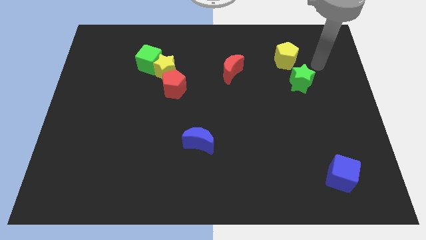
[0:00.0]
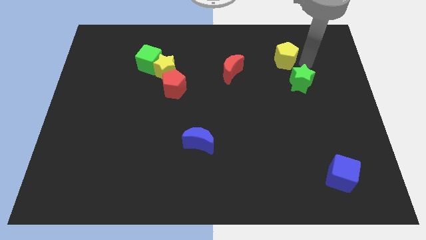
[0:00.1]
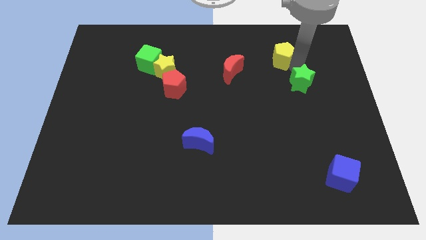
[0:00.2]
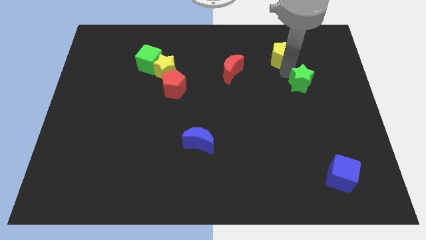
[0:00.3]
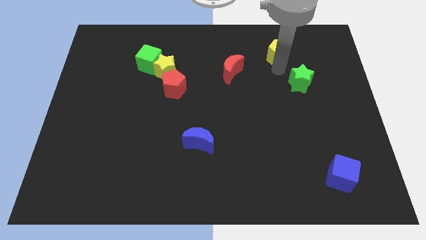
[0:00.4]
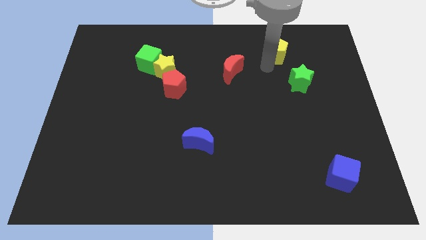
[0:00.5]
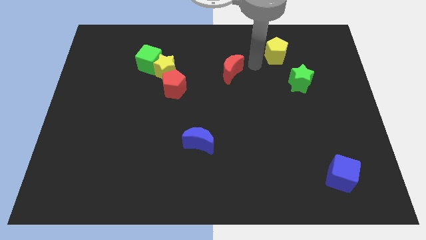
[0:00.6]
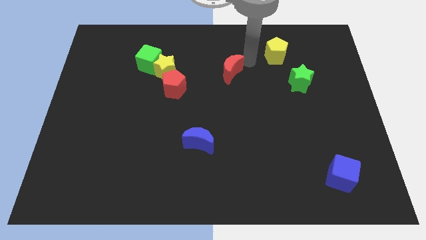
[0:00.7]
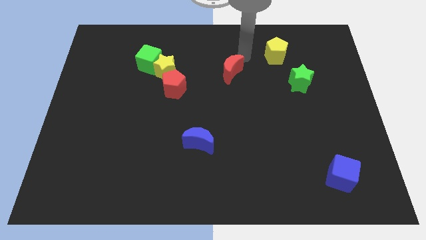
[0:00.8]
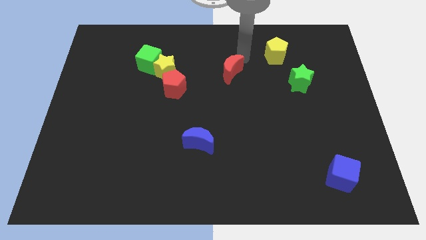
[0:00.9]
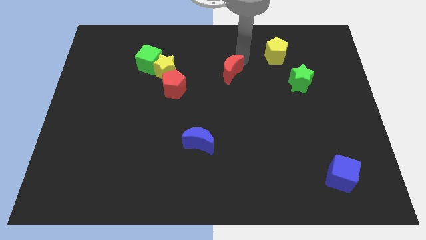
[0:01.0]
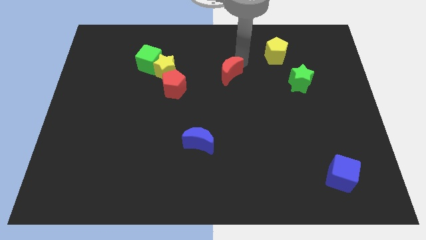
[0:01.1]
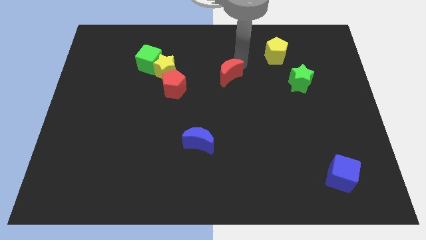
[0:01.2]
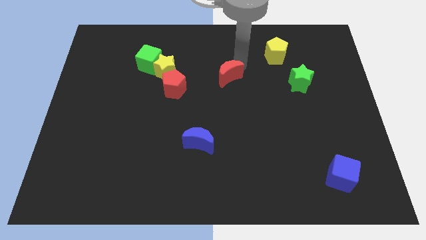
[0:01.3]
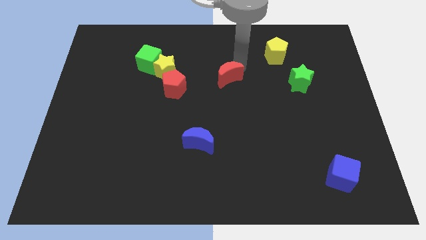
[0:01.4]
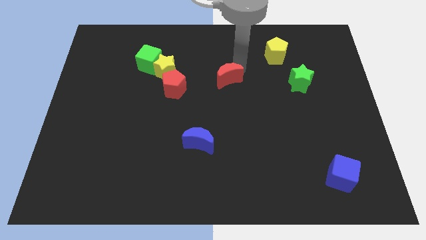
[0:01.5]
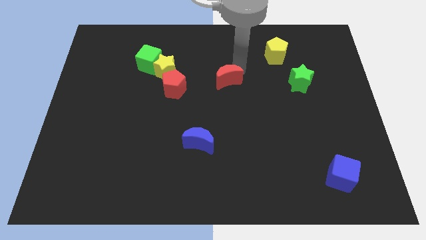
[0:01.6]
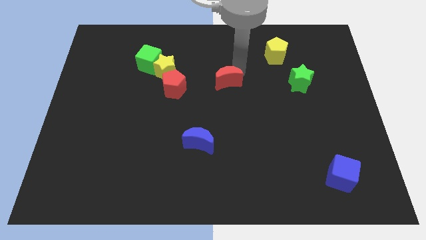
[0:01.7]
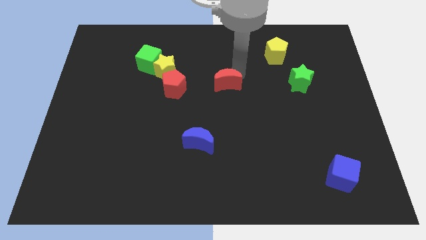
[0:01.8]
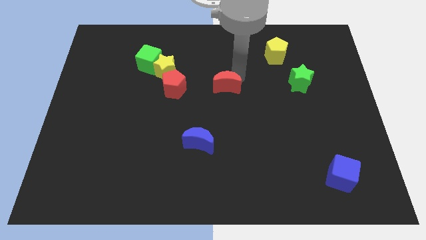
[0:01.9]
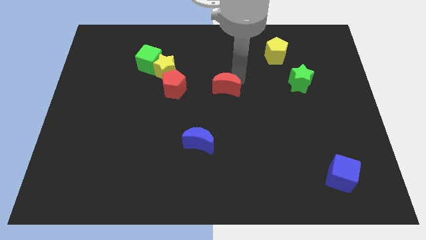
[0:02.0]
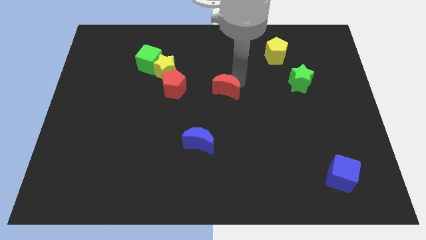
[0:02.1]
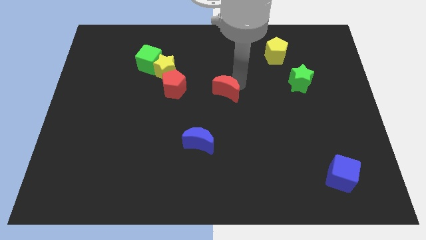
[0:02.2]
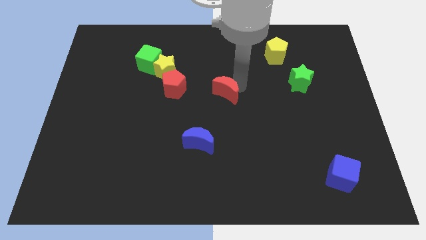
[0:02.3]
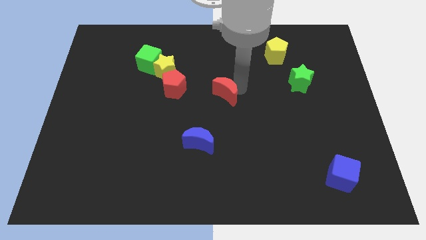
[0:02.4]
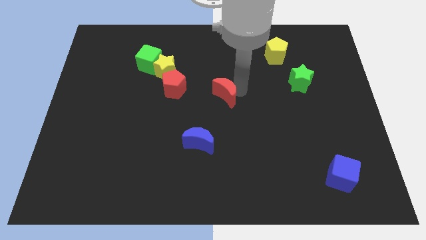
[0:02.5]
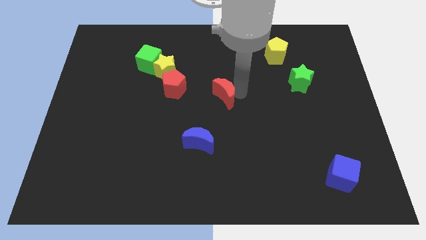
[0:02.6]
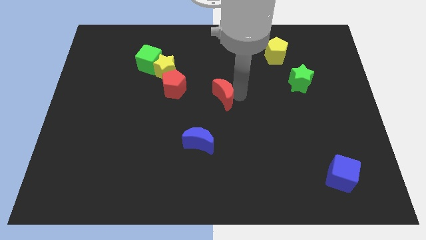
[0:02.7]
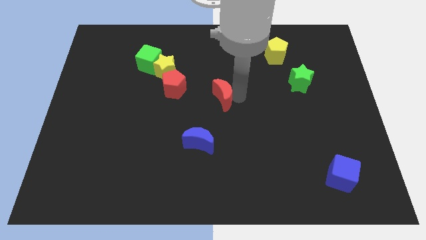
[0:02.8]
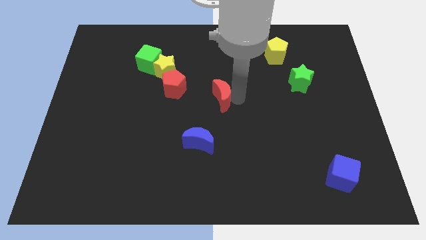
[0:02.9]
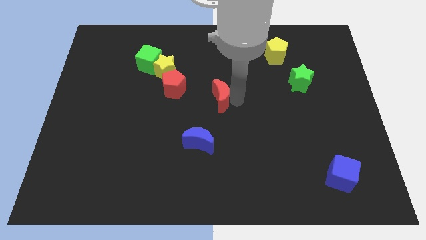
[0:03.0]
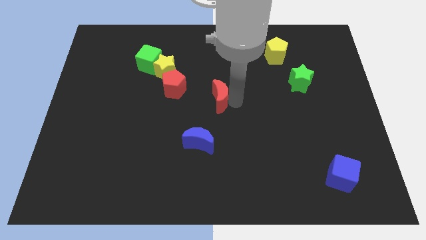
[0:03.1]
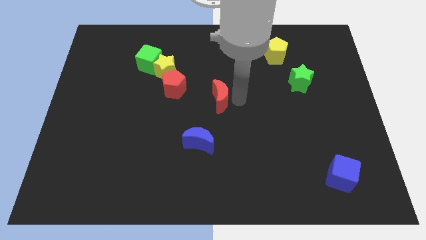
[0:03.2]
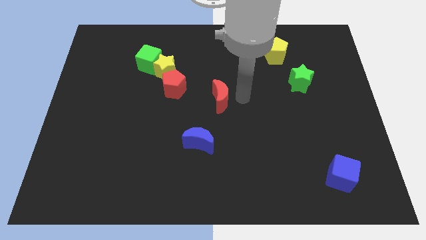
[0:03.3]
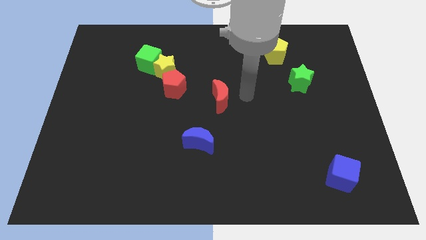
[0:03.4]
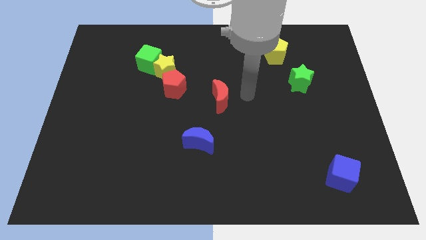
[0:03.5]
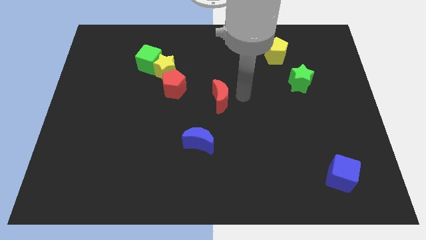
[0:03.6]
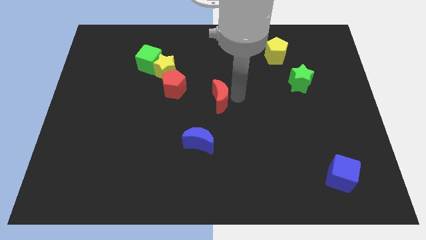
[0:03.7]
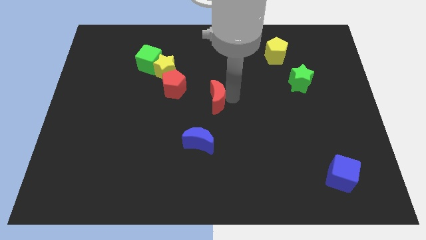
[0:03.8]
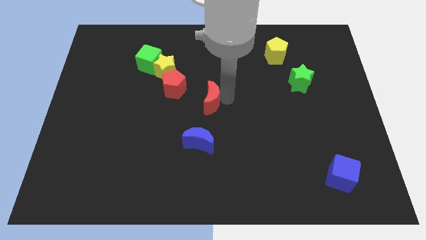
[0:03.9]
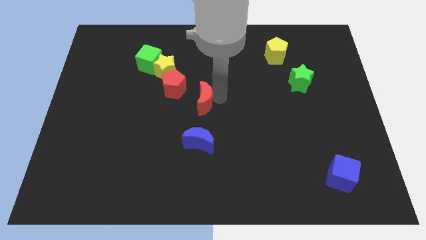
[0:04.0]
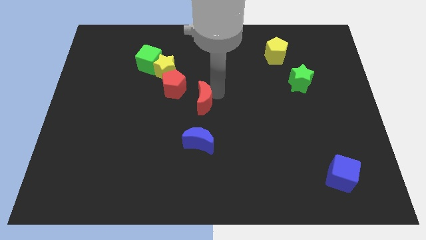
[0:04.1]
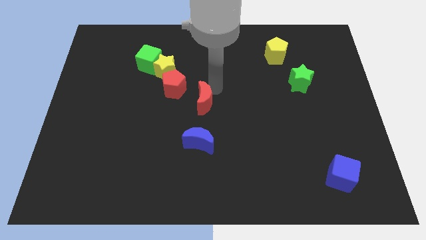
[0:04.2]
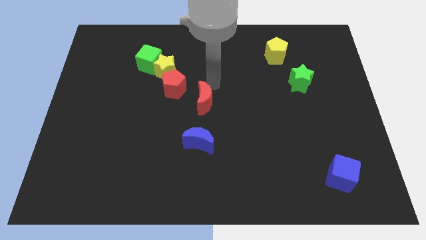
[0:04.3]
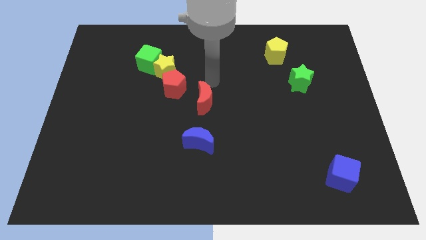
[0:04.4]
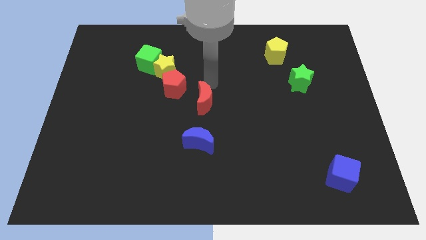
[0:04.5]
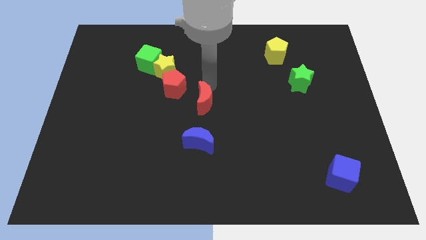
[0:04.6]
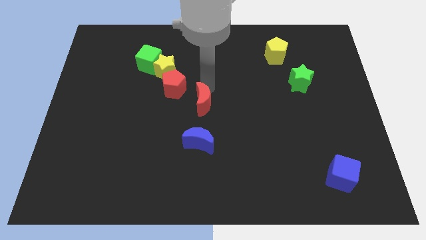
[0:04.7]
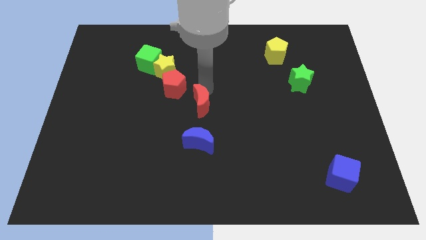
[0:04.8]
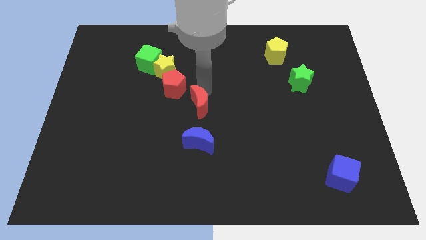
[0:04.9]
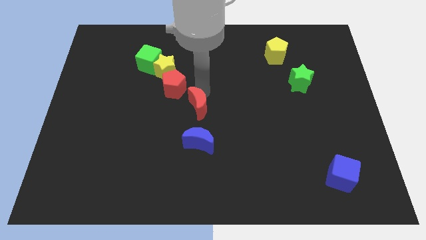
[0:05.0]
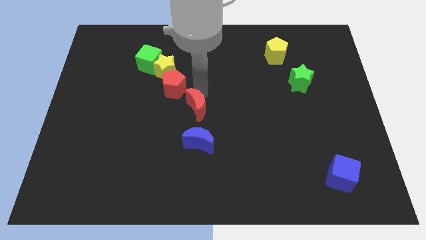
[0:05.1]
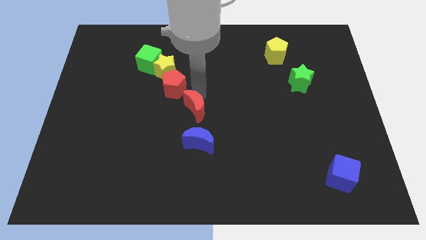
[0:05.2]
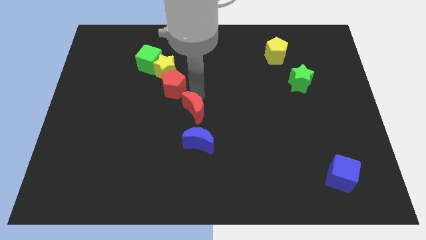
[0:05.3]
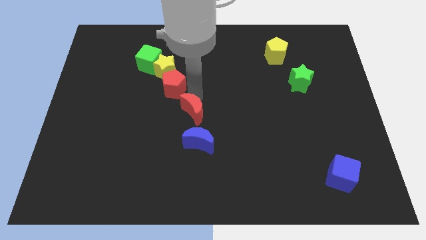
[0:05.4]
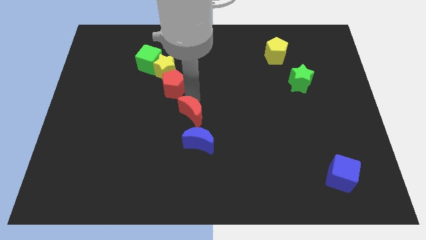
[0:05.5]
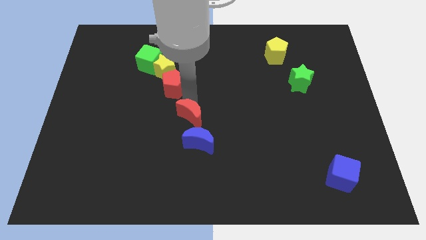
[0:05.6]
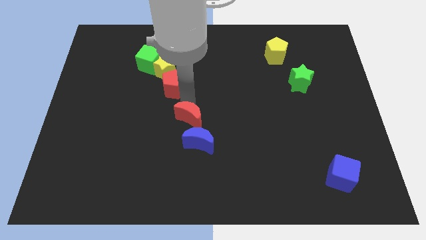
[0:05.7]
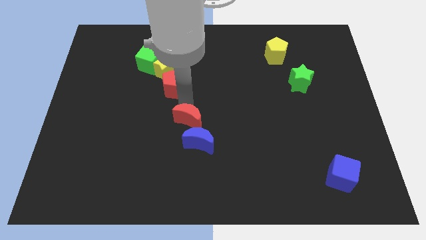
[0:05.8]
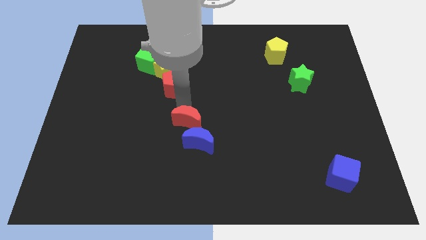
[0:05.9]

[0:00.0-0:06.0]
put the red moon next to the blue moon

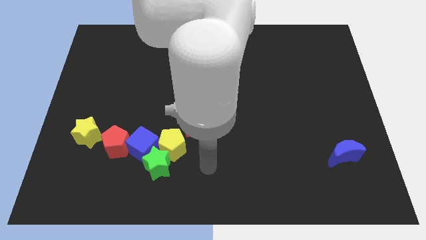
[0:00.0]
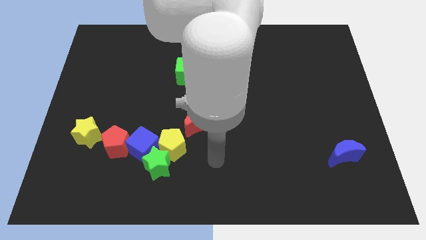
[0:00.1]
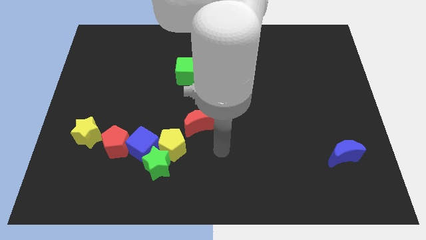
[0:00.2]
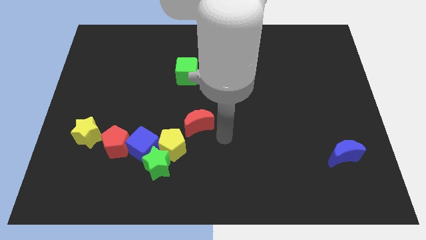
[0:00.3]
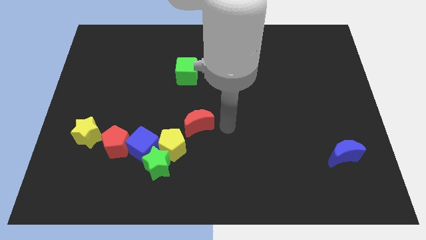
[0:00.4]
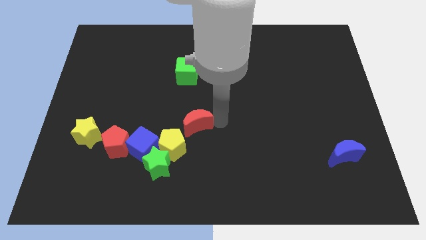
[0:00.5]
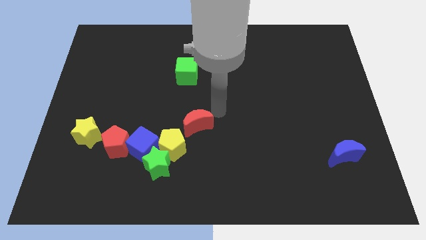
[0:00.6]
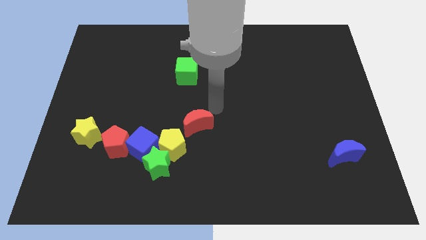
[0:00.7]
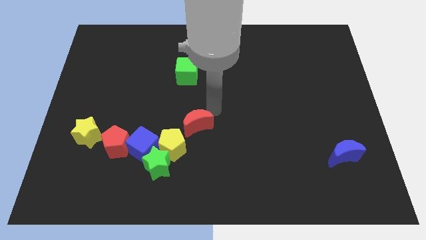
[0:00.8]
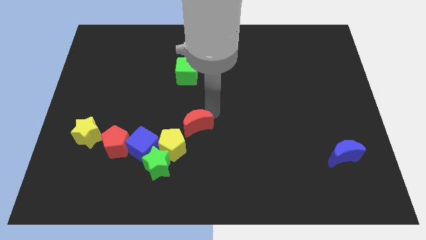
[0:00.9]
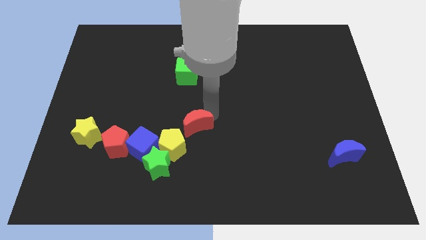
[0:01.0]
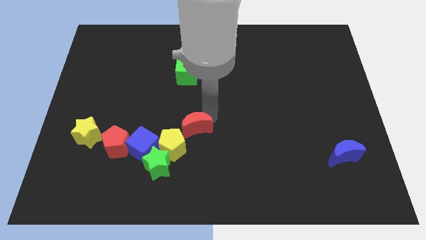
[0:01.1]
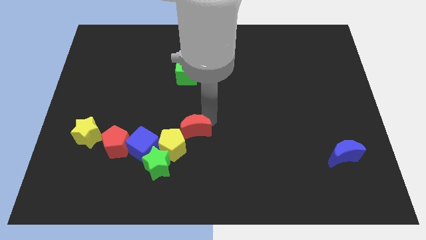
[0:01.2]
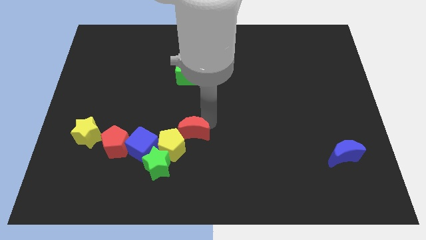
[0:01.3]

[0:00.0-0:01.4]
move the red moon towards the yellow pentagon
